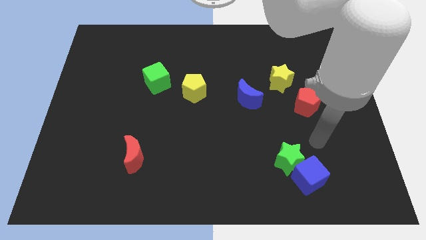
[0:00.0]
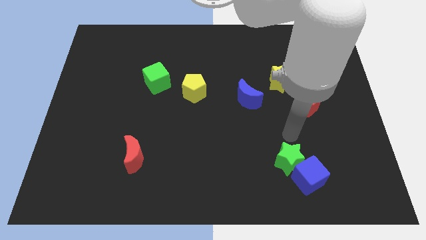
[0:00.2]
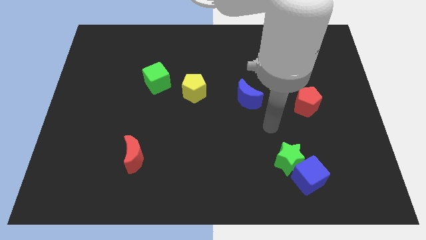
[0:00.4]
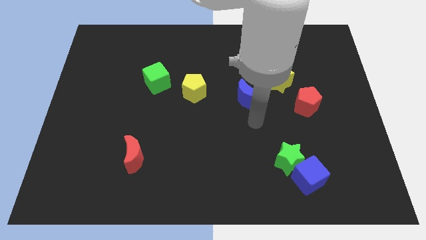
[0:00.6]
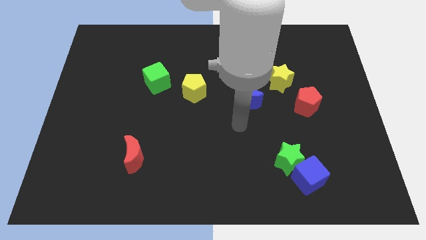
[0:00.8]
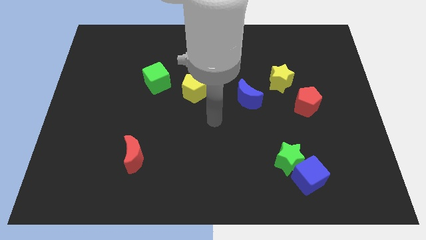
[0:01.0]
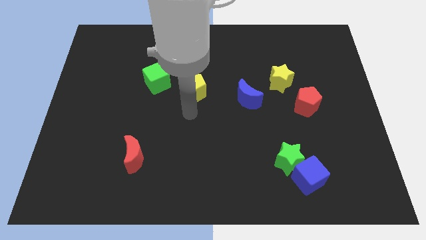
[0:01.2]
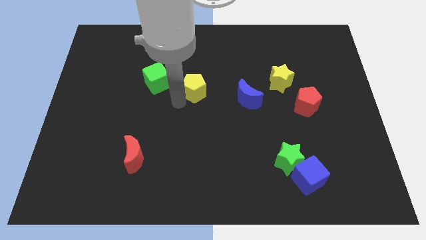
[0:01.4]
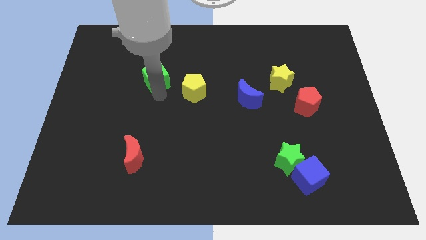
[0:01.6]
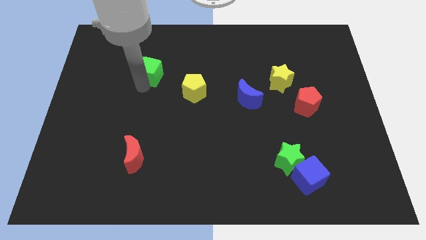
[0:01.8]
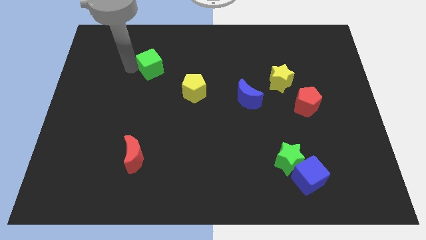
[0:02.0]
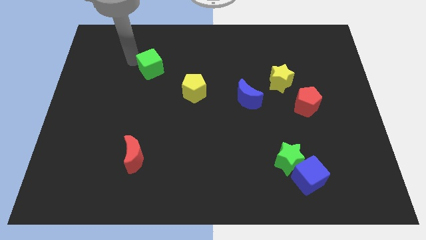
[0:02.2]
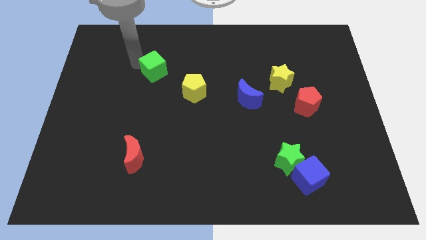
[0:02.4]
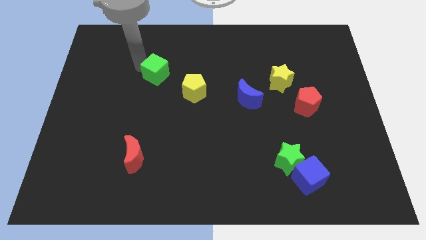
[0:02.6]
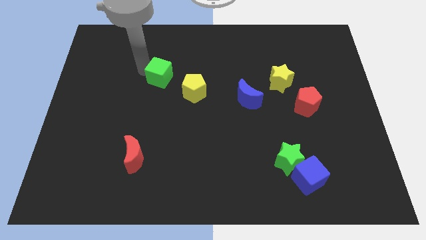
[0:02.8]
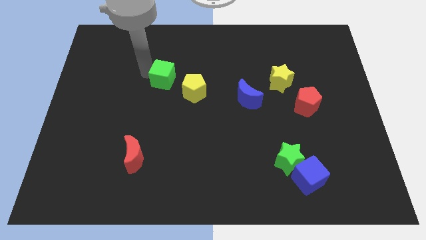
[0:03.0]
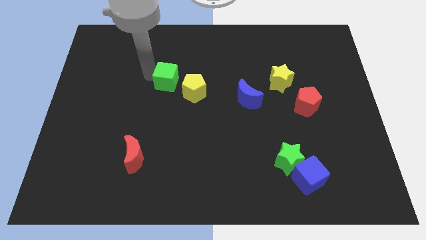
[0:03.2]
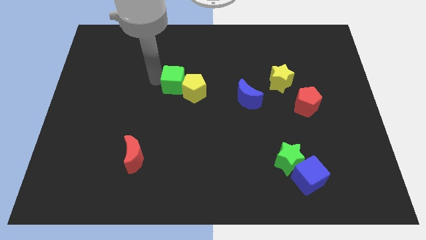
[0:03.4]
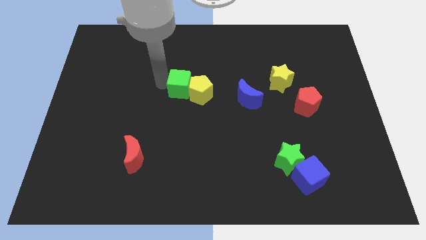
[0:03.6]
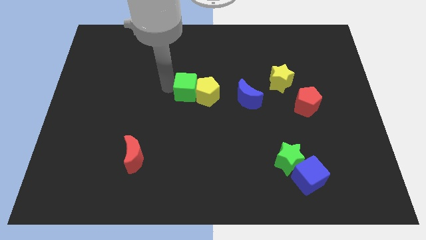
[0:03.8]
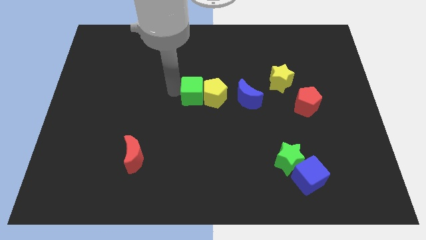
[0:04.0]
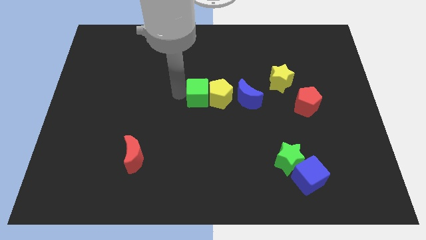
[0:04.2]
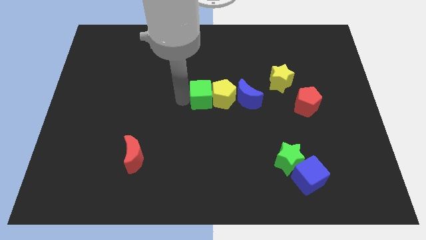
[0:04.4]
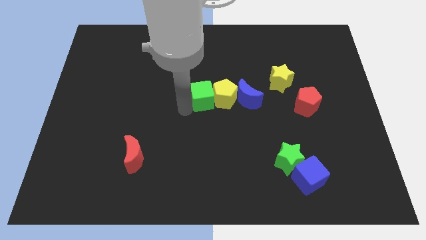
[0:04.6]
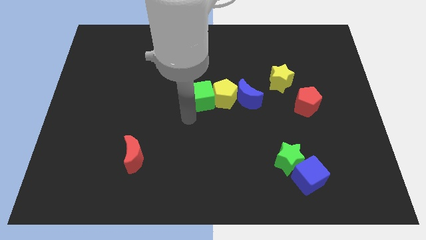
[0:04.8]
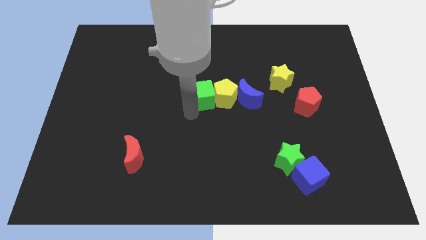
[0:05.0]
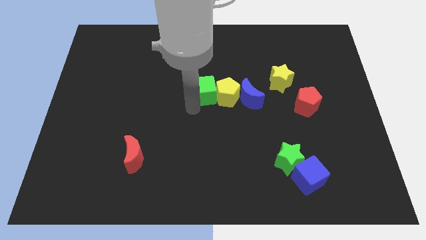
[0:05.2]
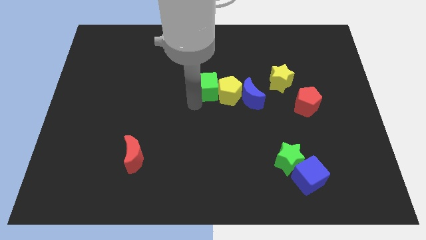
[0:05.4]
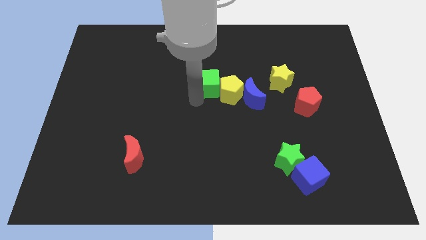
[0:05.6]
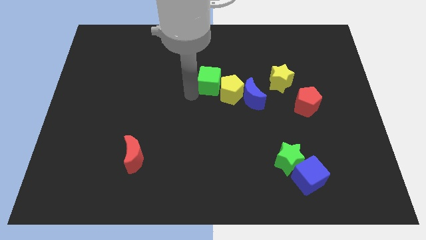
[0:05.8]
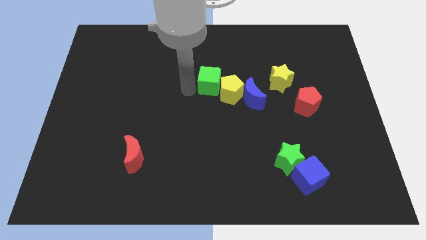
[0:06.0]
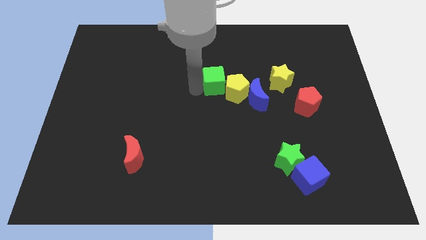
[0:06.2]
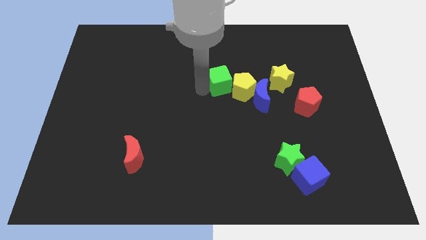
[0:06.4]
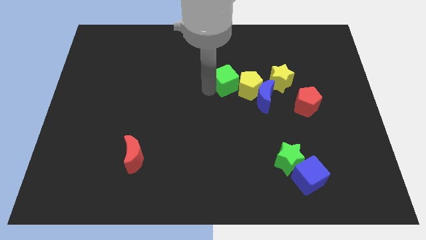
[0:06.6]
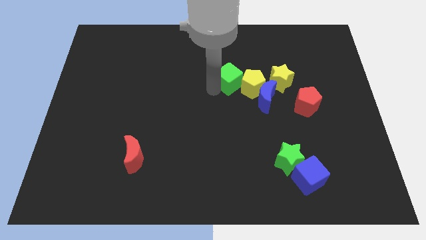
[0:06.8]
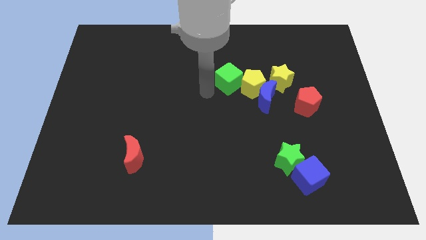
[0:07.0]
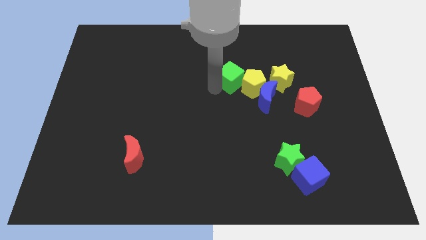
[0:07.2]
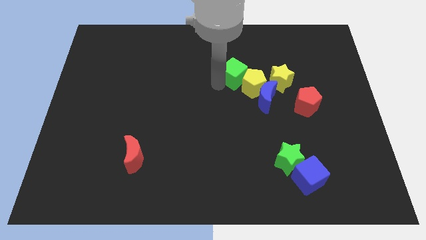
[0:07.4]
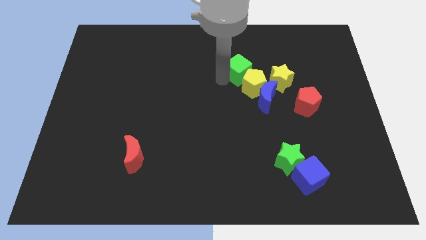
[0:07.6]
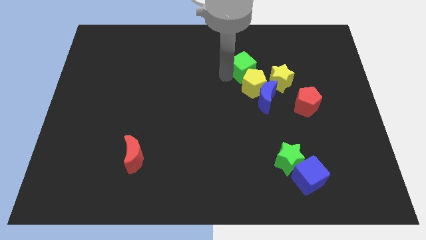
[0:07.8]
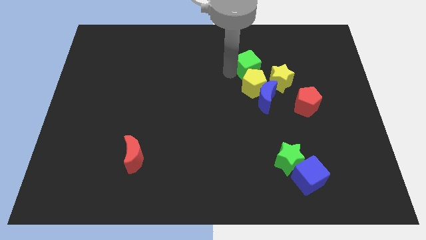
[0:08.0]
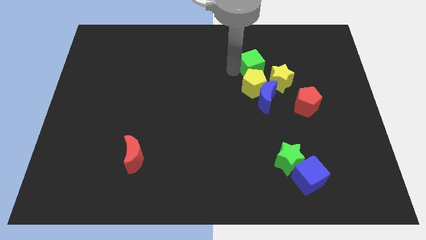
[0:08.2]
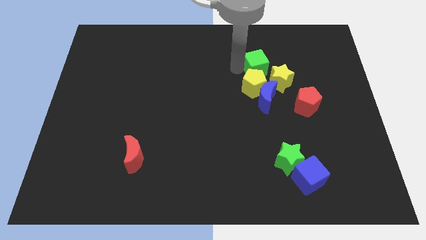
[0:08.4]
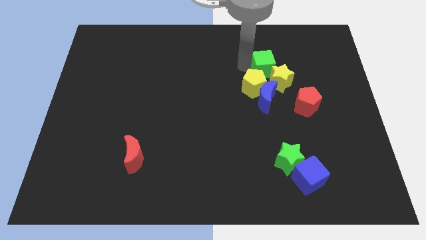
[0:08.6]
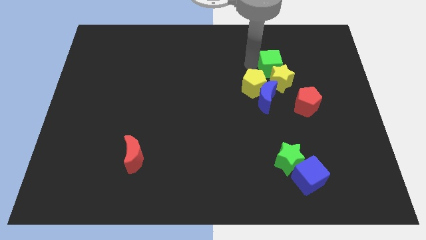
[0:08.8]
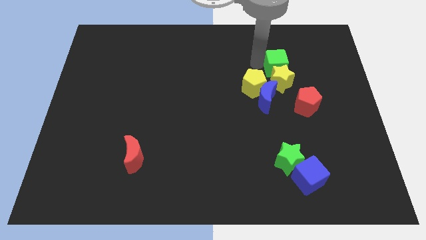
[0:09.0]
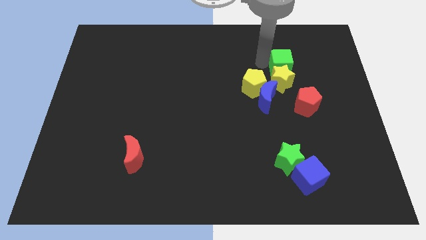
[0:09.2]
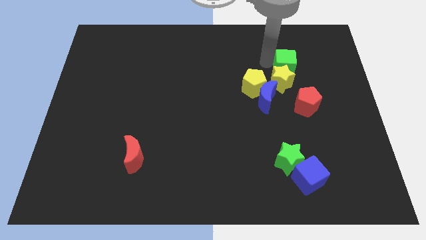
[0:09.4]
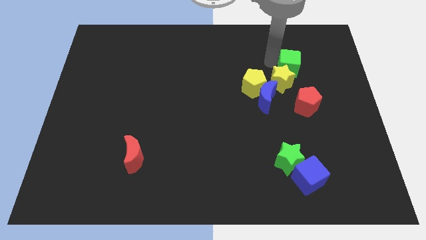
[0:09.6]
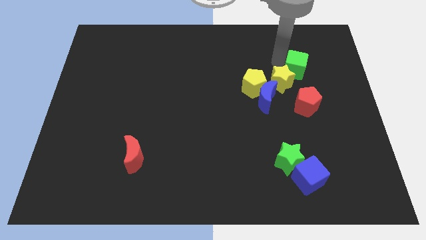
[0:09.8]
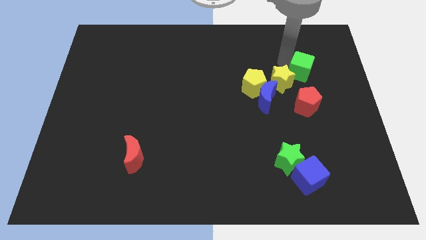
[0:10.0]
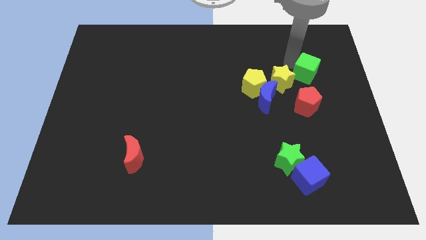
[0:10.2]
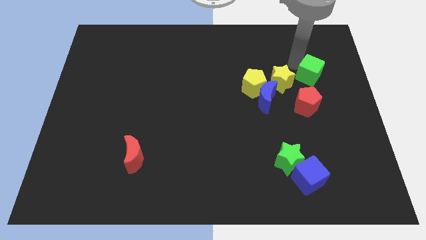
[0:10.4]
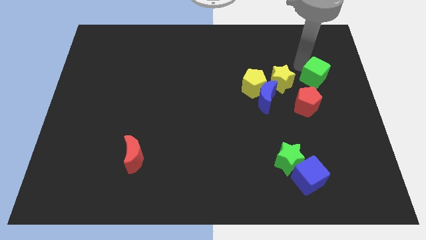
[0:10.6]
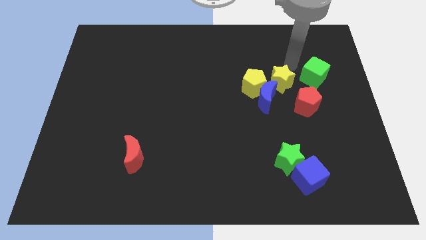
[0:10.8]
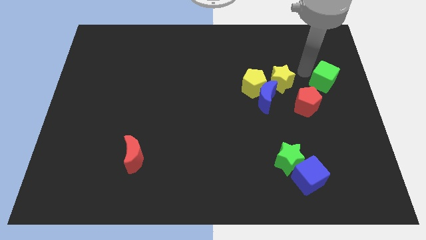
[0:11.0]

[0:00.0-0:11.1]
slide the green cube to the right side of the board

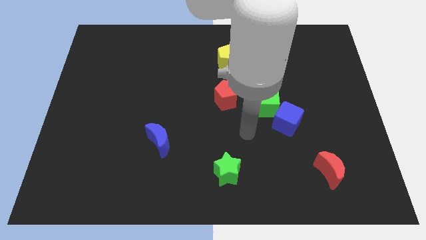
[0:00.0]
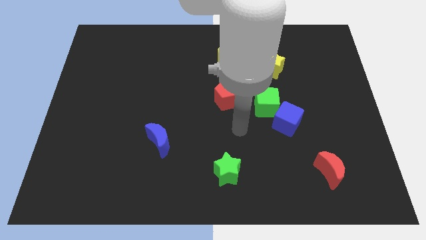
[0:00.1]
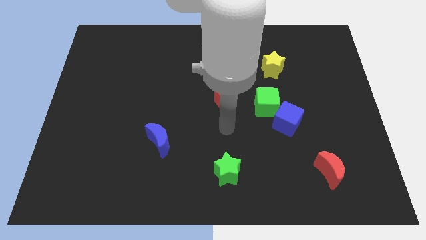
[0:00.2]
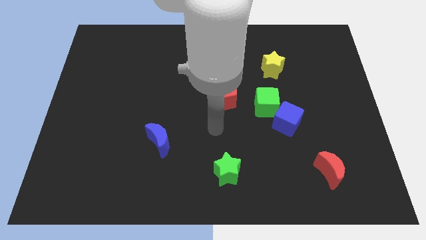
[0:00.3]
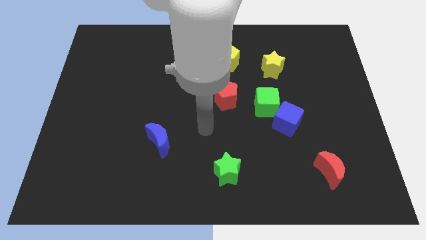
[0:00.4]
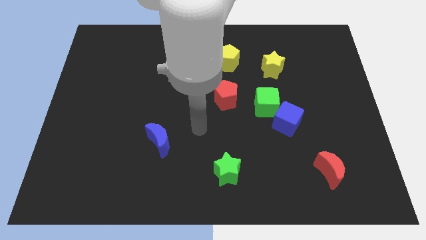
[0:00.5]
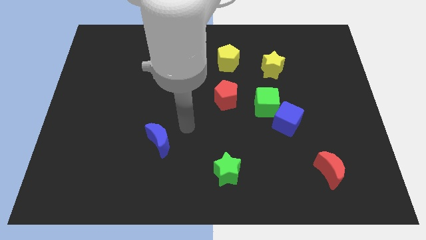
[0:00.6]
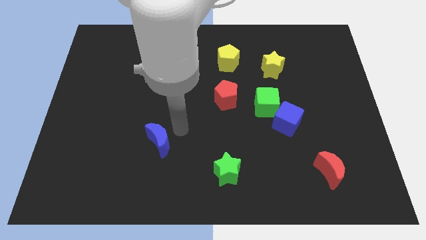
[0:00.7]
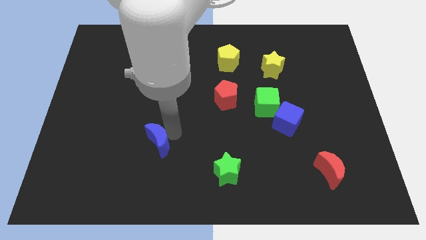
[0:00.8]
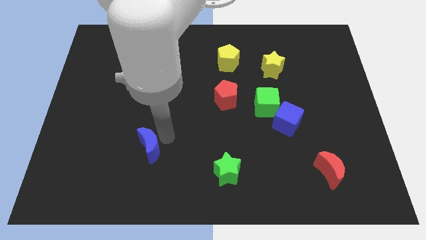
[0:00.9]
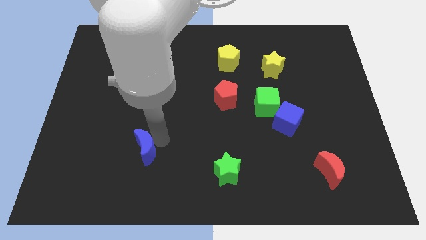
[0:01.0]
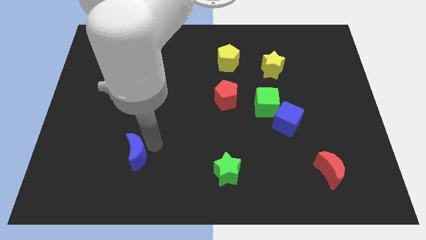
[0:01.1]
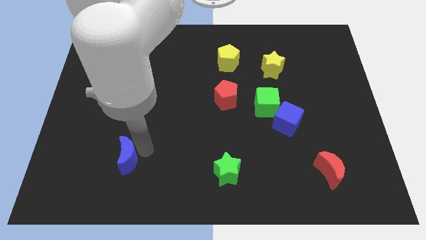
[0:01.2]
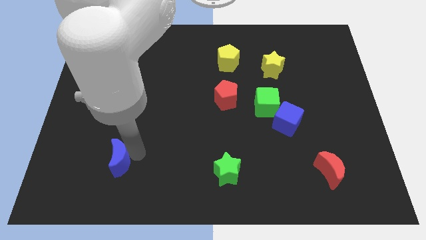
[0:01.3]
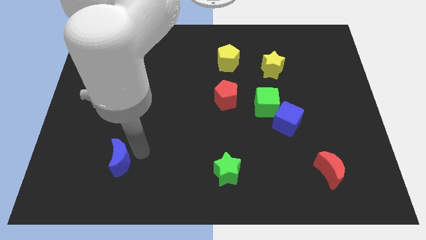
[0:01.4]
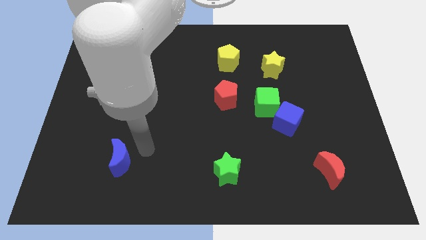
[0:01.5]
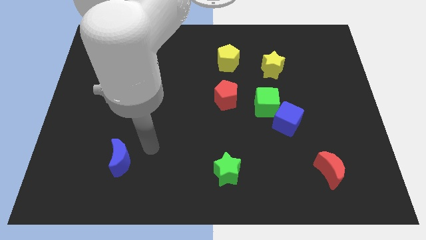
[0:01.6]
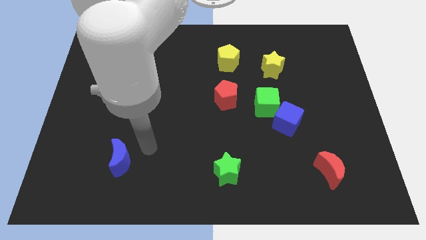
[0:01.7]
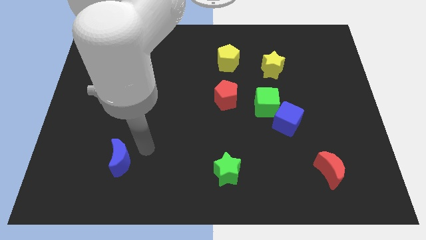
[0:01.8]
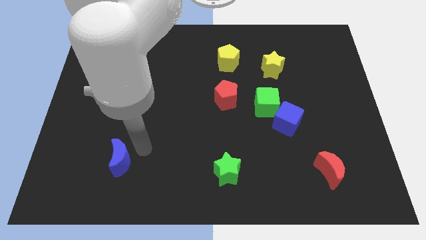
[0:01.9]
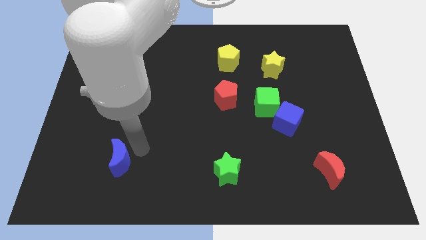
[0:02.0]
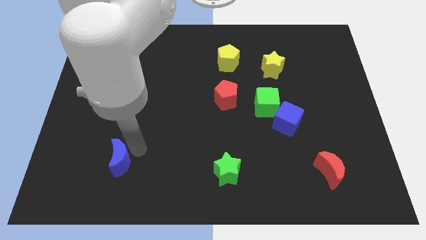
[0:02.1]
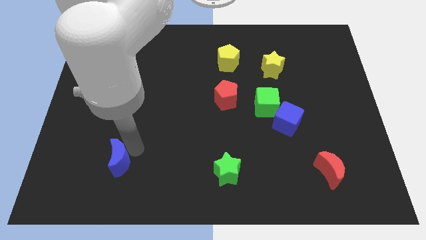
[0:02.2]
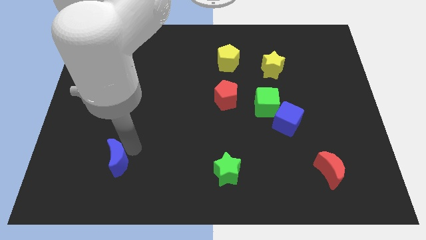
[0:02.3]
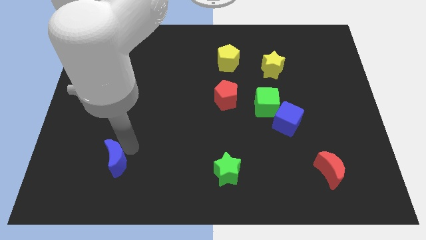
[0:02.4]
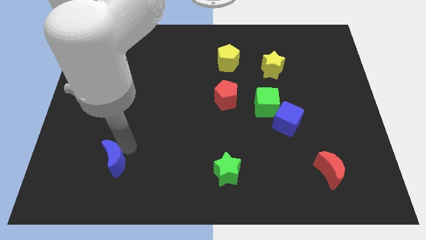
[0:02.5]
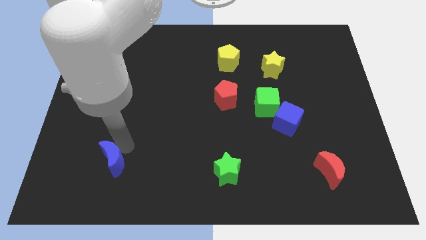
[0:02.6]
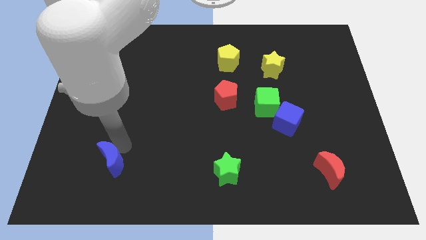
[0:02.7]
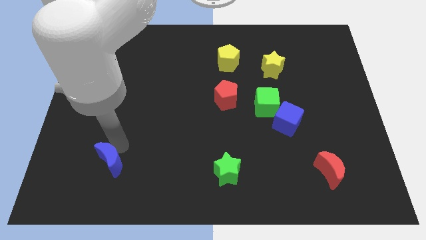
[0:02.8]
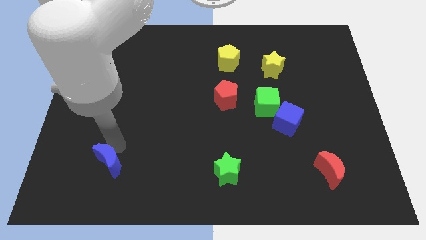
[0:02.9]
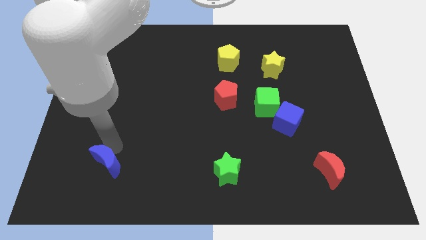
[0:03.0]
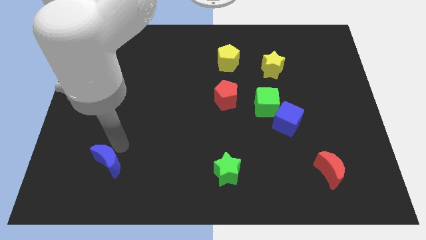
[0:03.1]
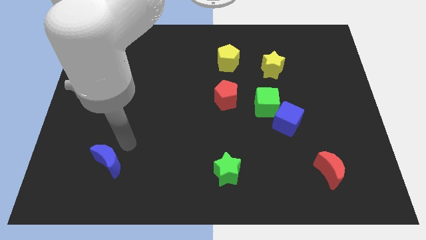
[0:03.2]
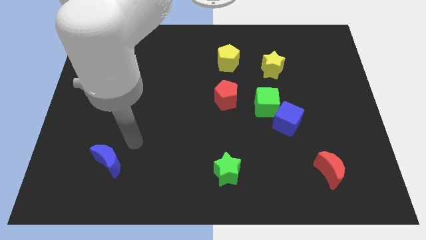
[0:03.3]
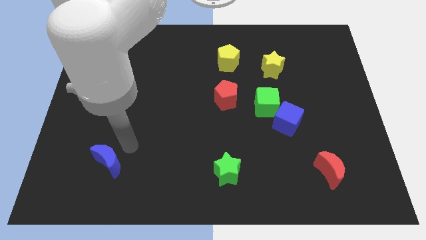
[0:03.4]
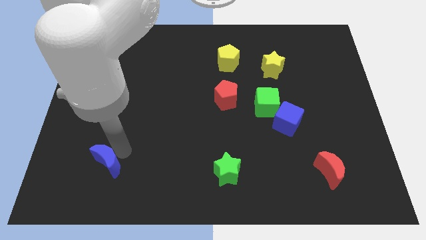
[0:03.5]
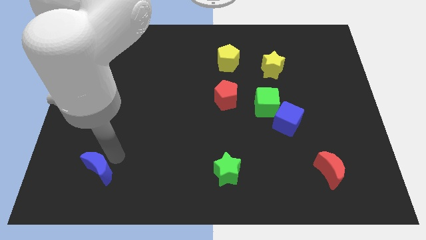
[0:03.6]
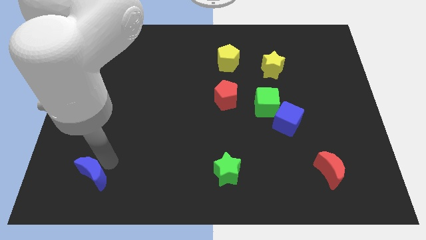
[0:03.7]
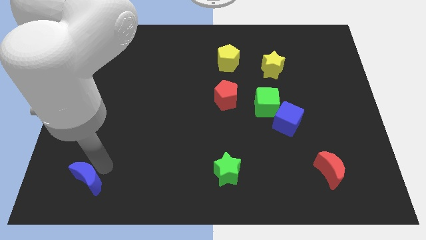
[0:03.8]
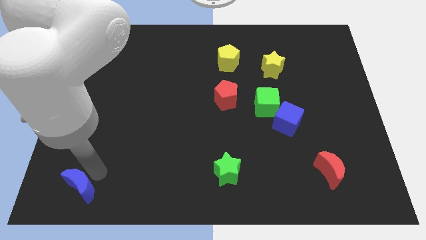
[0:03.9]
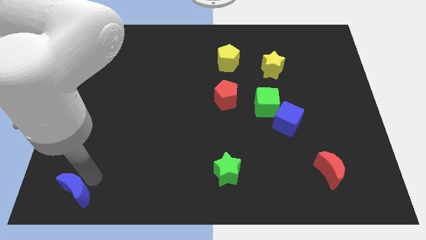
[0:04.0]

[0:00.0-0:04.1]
push the blue moon to the lower left corner
